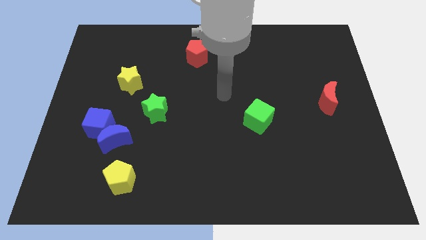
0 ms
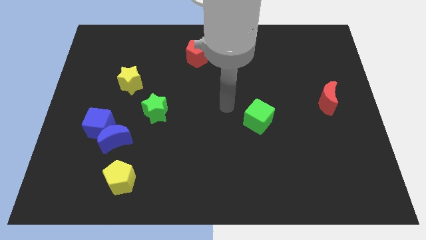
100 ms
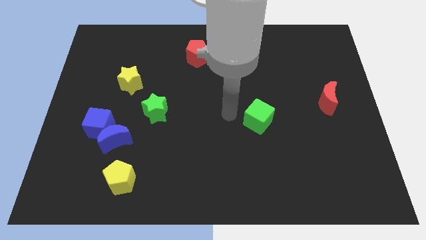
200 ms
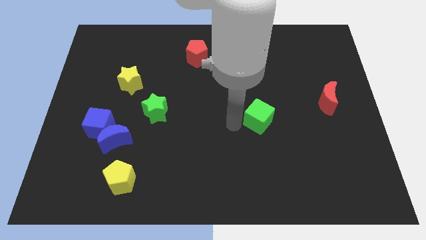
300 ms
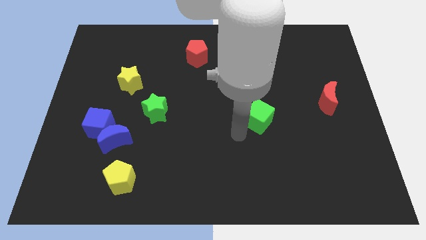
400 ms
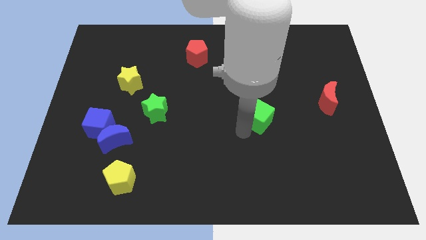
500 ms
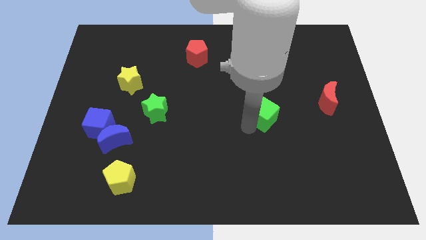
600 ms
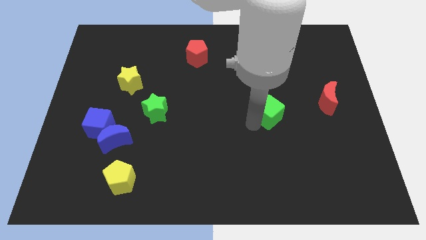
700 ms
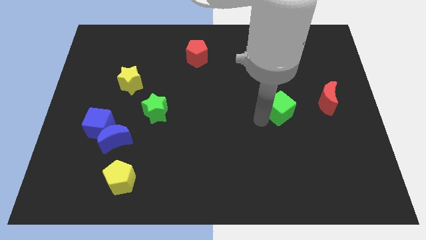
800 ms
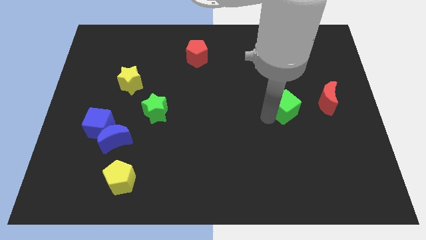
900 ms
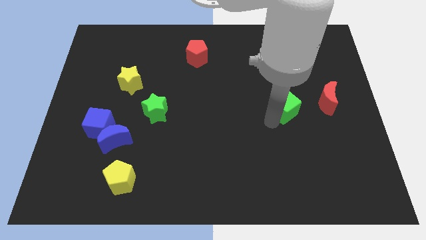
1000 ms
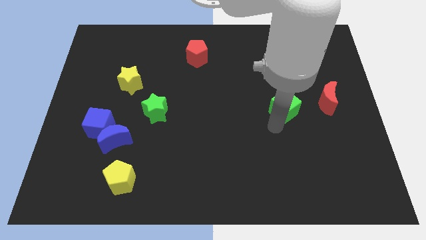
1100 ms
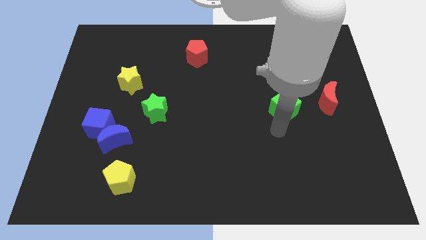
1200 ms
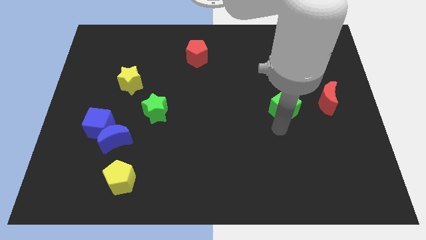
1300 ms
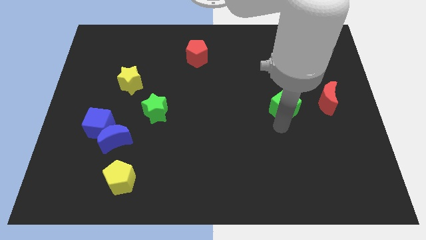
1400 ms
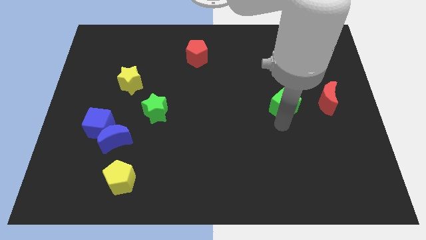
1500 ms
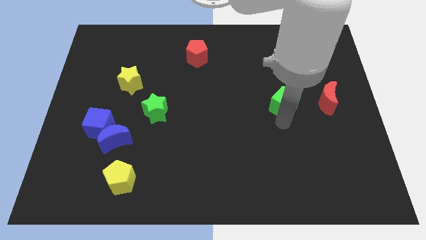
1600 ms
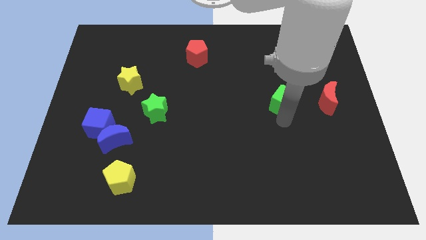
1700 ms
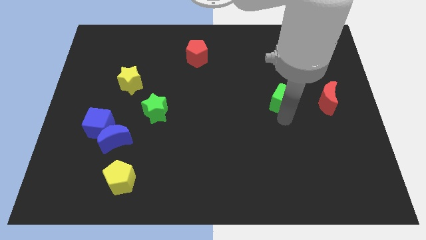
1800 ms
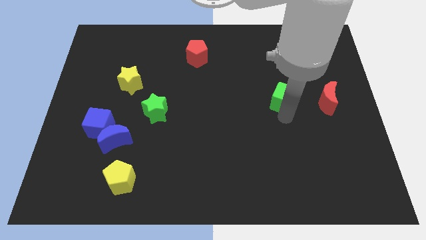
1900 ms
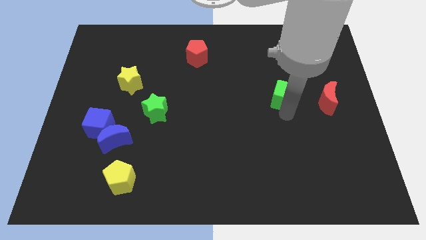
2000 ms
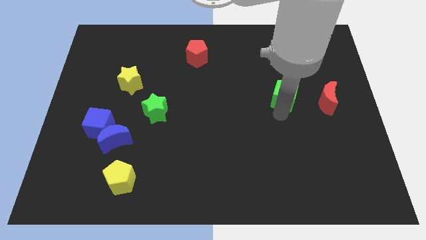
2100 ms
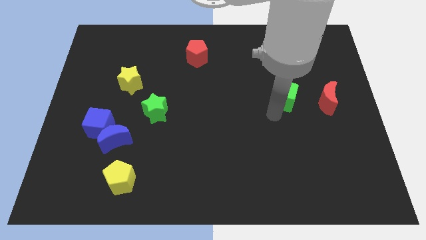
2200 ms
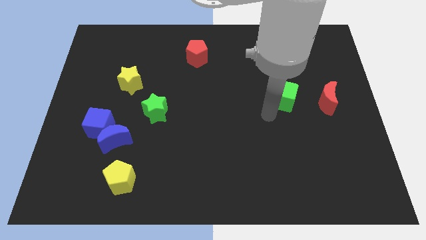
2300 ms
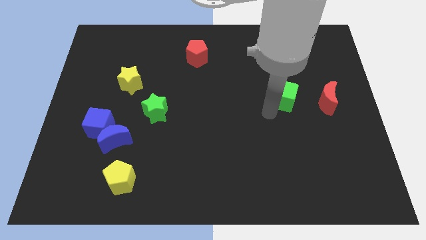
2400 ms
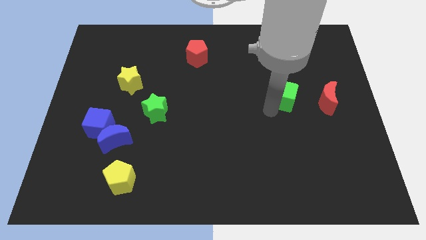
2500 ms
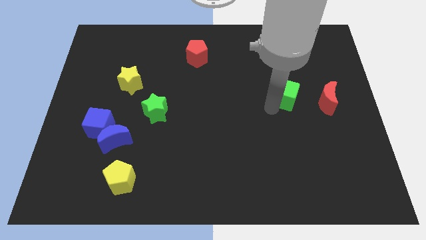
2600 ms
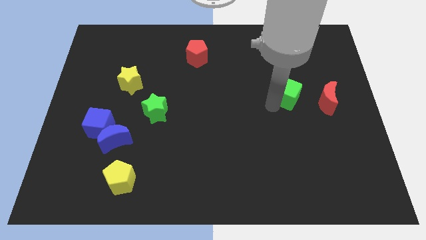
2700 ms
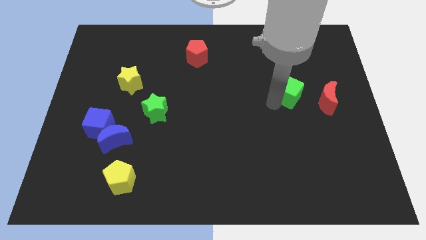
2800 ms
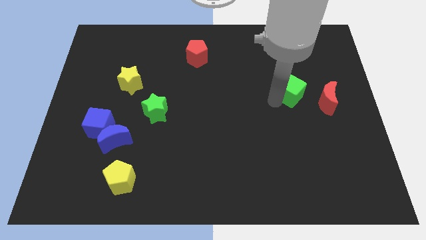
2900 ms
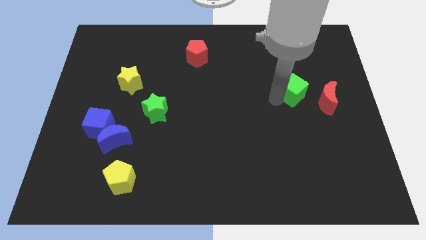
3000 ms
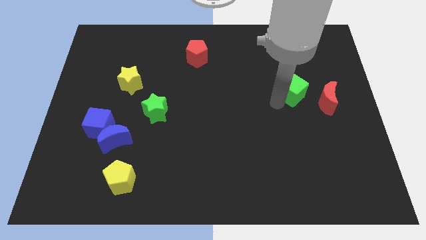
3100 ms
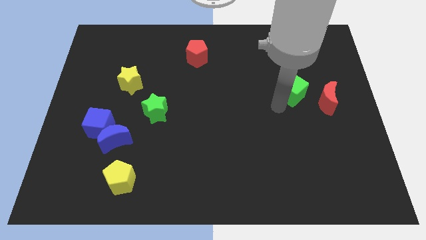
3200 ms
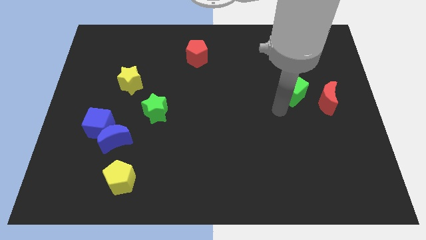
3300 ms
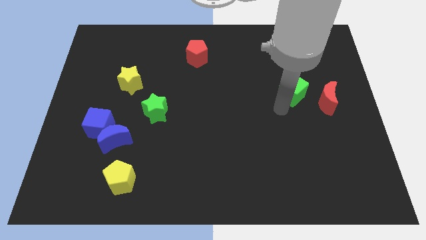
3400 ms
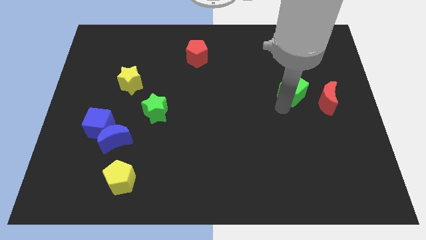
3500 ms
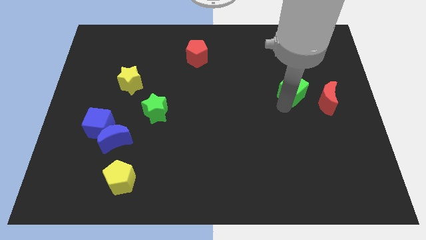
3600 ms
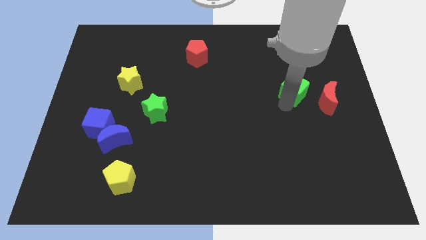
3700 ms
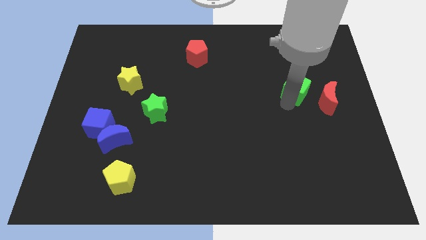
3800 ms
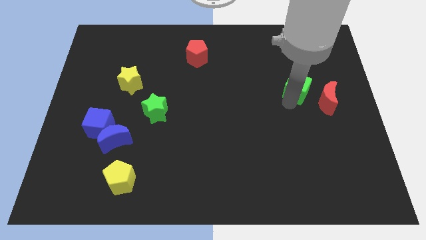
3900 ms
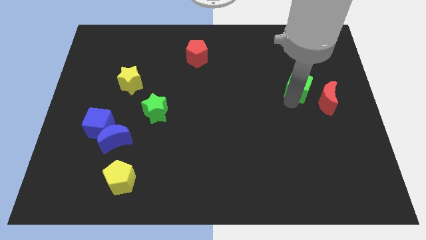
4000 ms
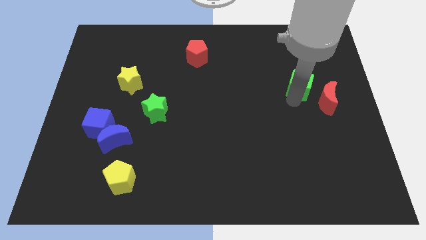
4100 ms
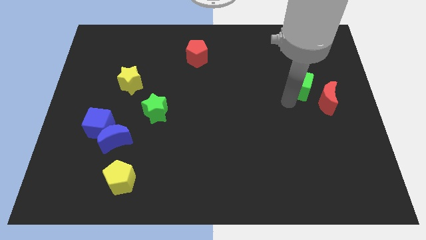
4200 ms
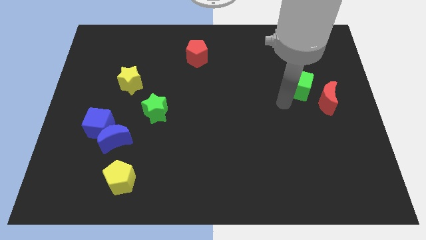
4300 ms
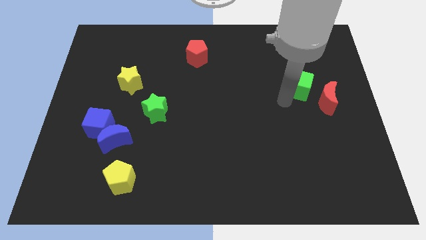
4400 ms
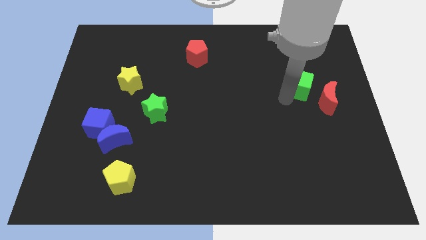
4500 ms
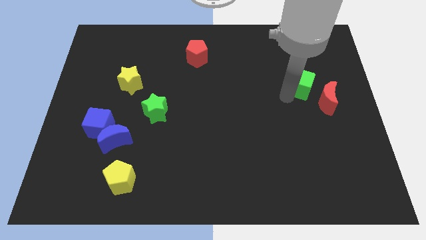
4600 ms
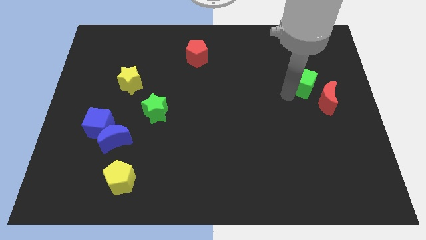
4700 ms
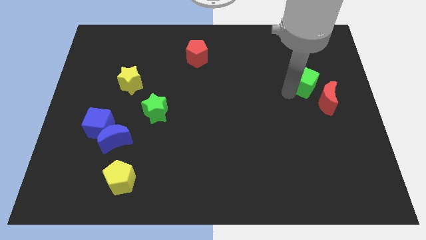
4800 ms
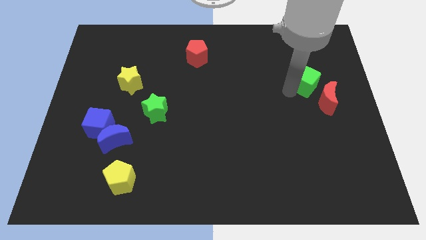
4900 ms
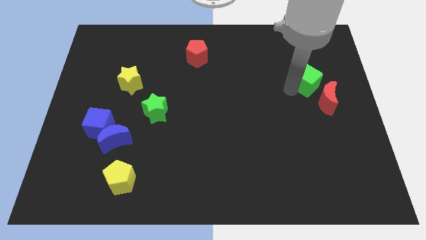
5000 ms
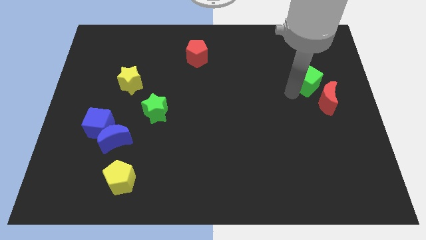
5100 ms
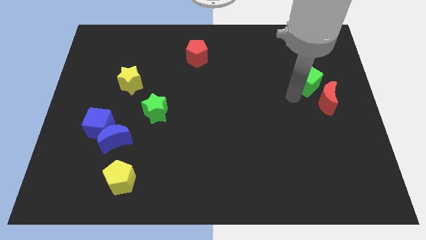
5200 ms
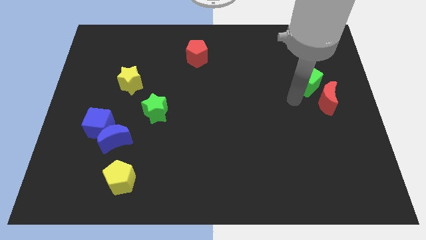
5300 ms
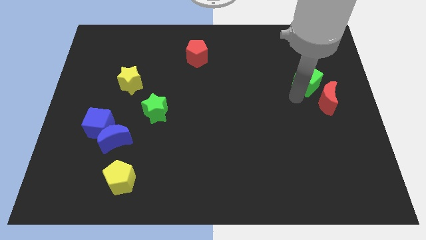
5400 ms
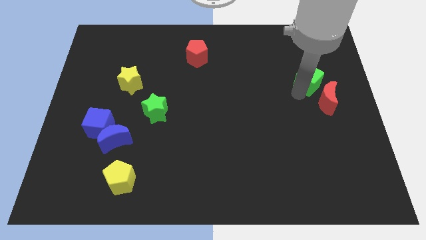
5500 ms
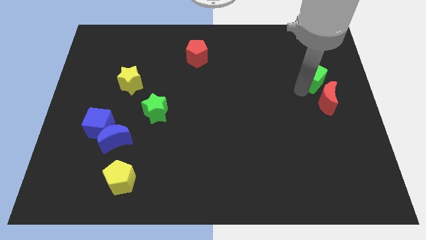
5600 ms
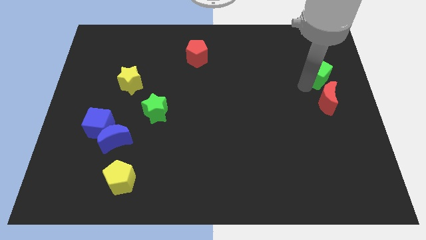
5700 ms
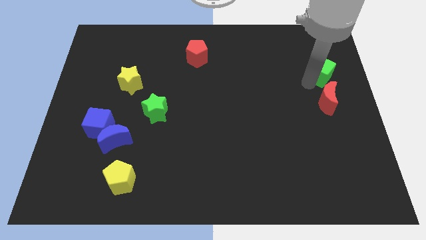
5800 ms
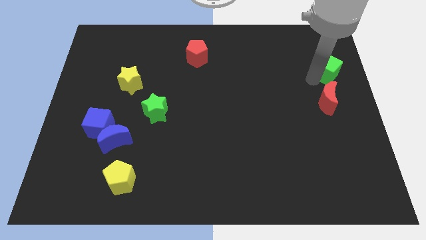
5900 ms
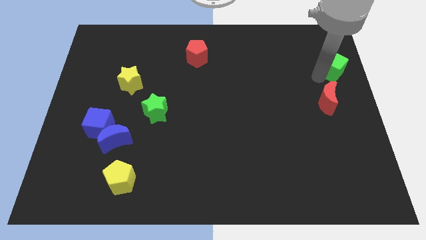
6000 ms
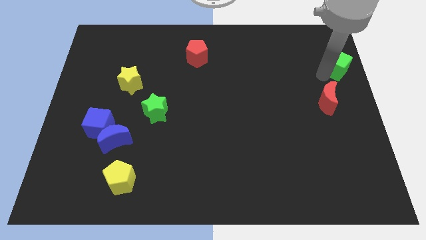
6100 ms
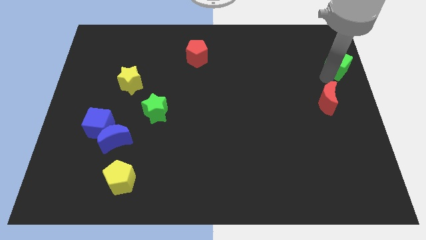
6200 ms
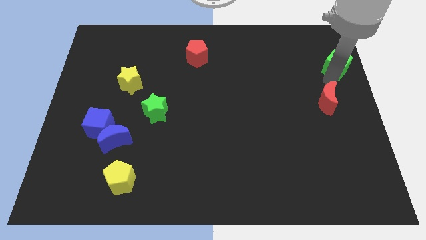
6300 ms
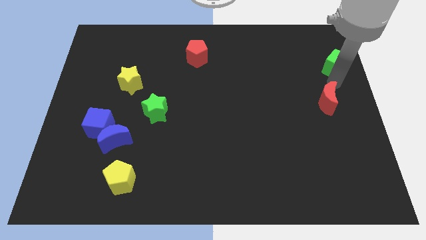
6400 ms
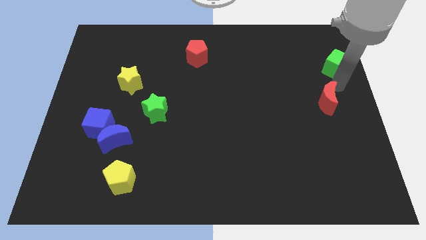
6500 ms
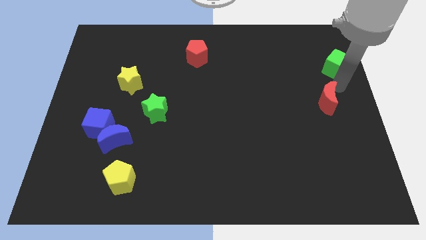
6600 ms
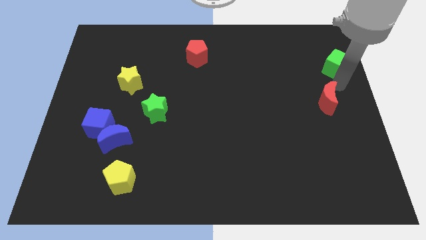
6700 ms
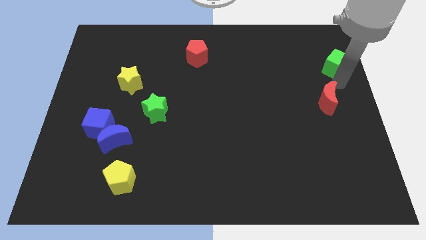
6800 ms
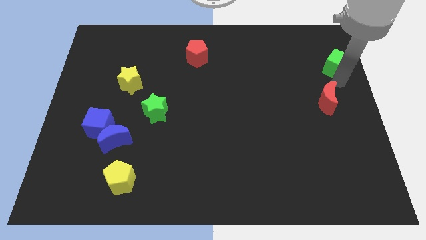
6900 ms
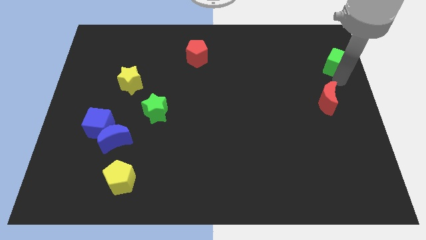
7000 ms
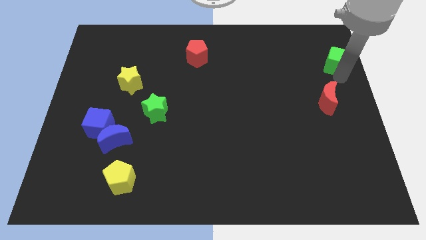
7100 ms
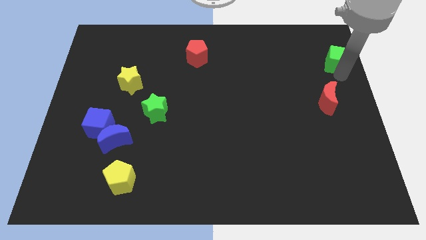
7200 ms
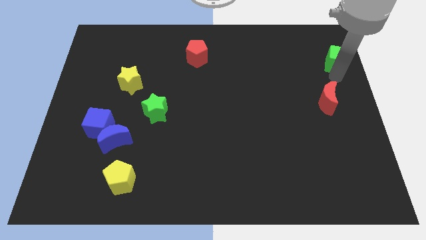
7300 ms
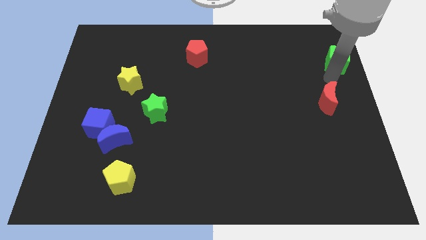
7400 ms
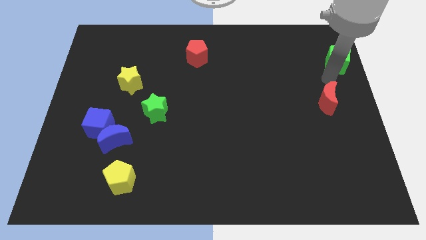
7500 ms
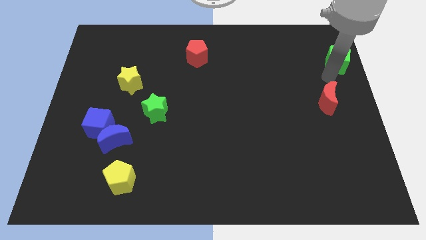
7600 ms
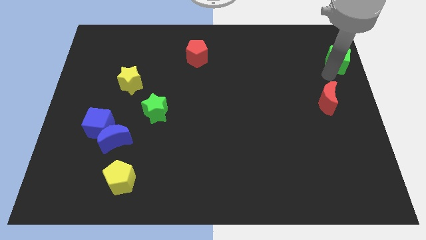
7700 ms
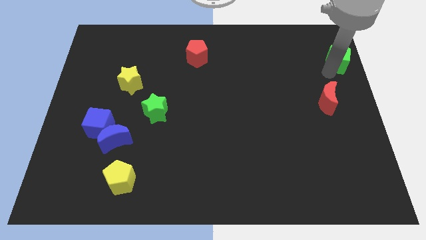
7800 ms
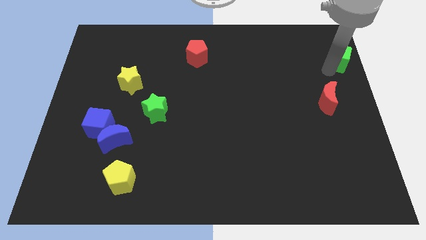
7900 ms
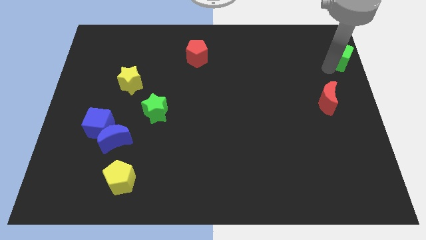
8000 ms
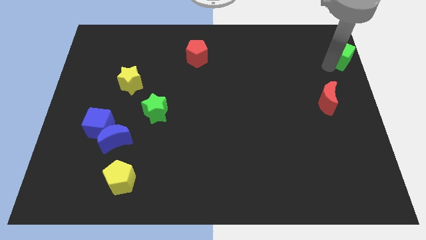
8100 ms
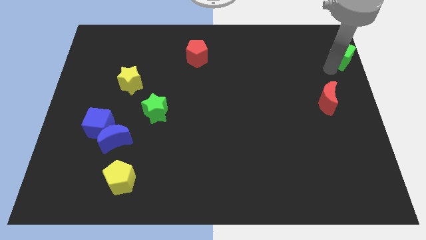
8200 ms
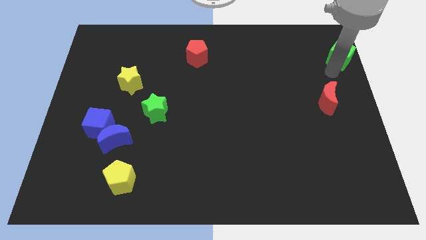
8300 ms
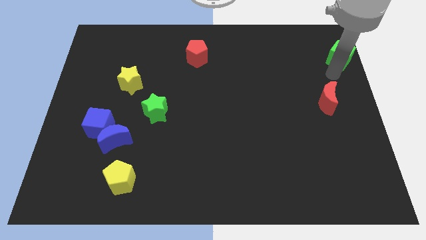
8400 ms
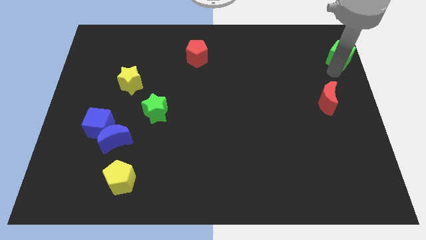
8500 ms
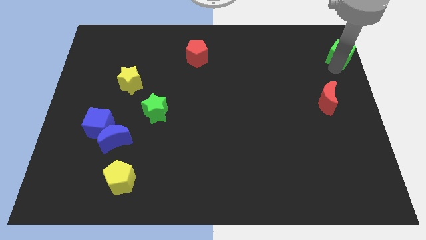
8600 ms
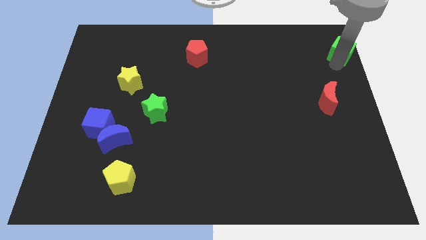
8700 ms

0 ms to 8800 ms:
slide the green cube to the top right of the board
